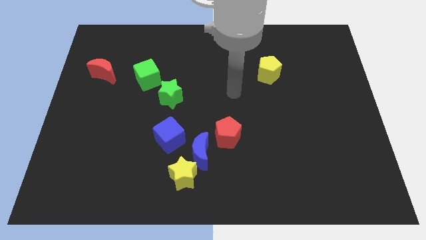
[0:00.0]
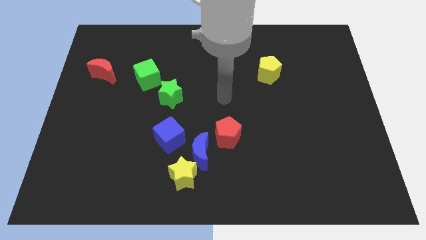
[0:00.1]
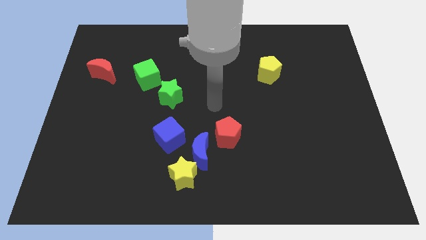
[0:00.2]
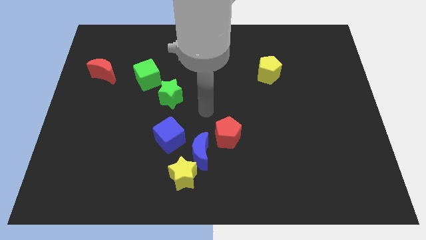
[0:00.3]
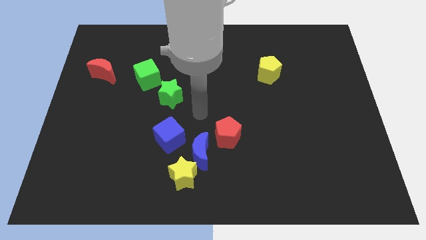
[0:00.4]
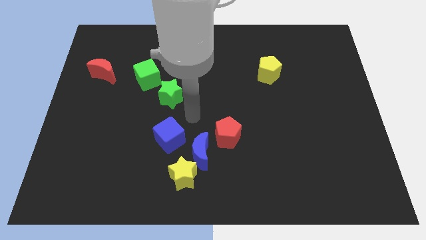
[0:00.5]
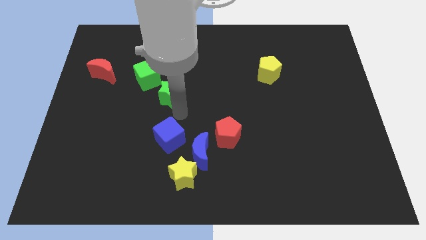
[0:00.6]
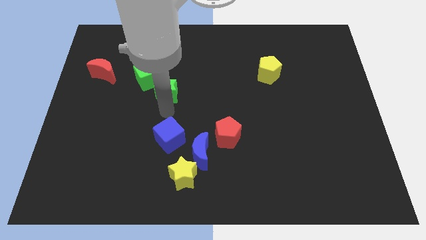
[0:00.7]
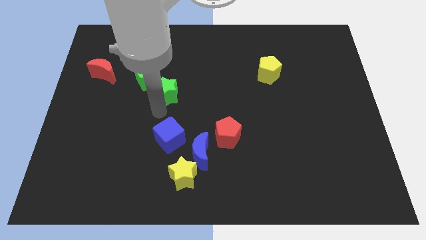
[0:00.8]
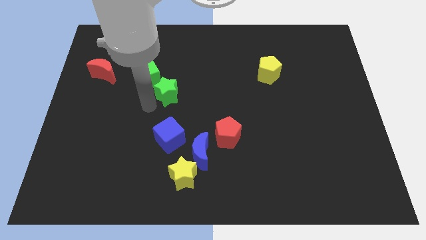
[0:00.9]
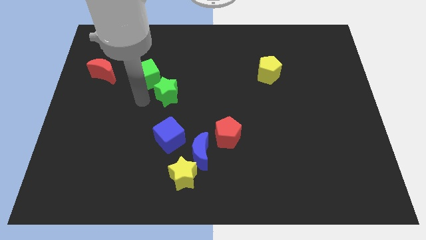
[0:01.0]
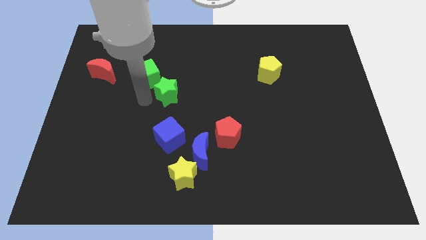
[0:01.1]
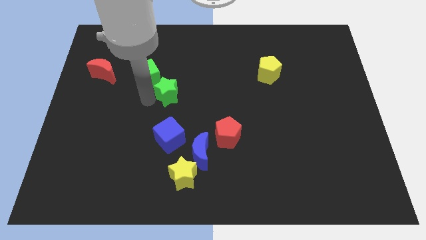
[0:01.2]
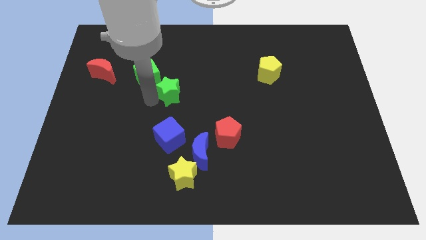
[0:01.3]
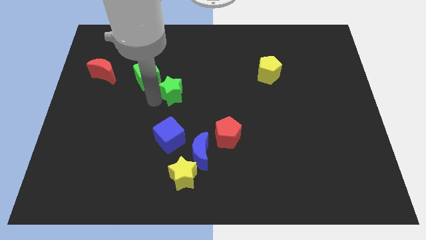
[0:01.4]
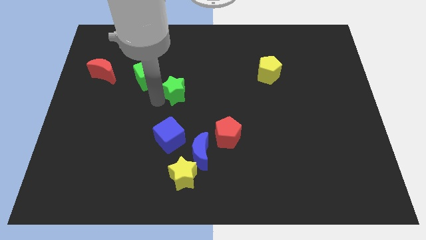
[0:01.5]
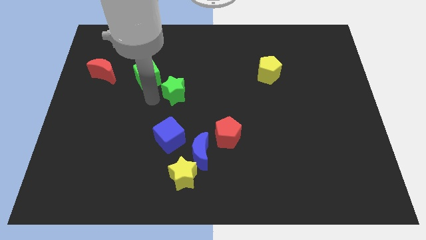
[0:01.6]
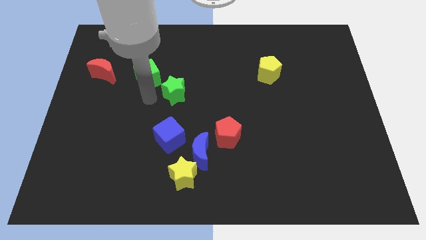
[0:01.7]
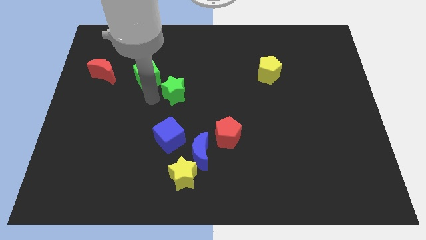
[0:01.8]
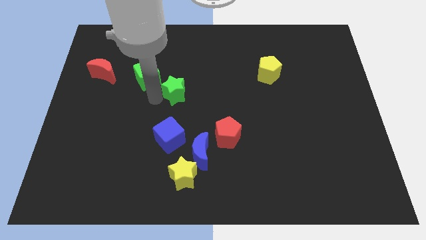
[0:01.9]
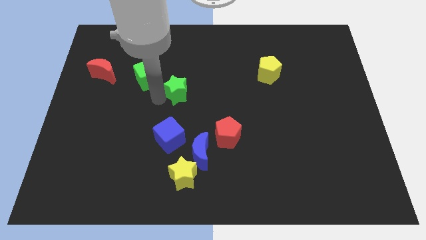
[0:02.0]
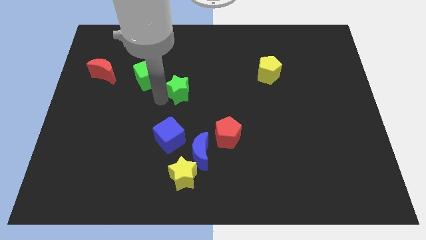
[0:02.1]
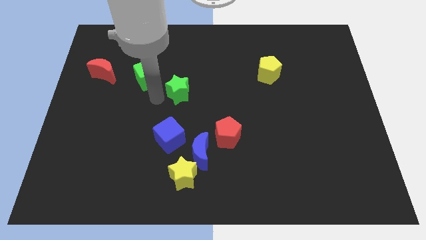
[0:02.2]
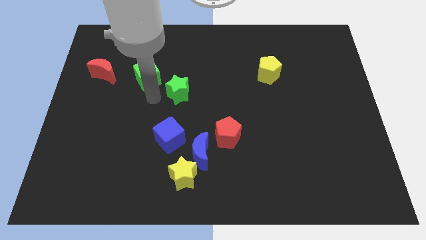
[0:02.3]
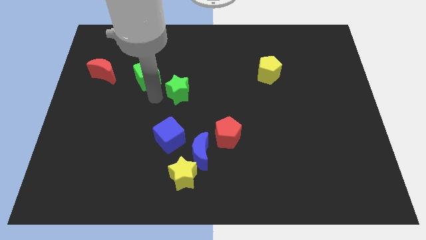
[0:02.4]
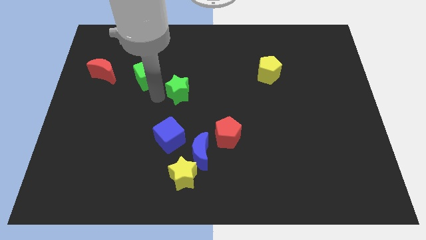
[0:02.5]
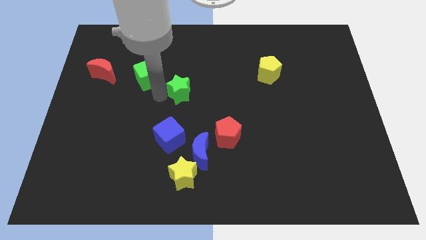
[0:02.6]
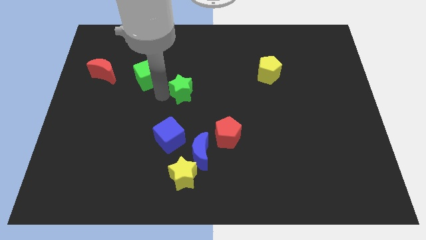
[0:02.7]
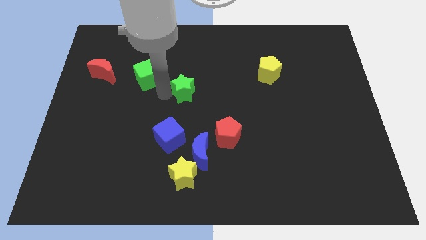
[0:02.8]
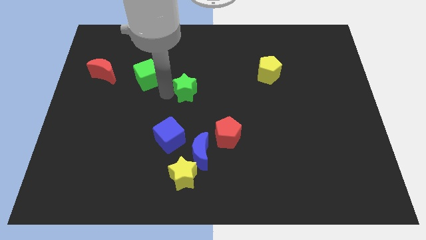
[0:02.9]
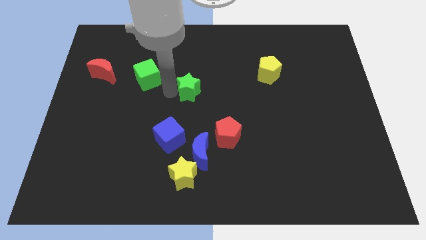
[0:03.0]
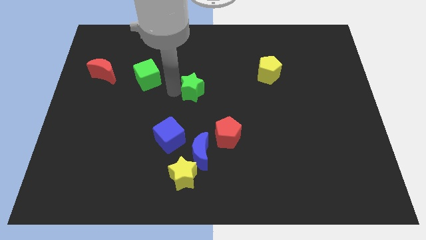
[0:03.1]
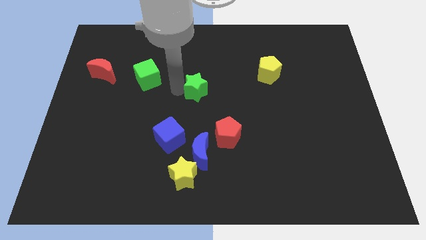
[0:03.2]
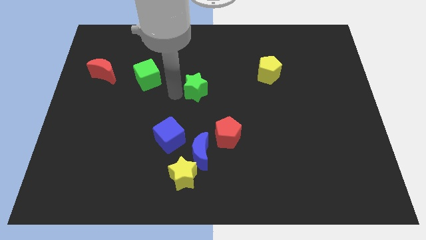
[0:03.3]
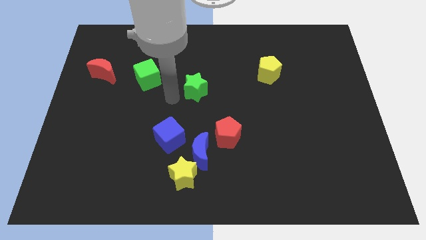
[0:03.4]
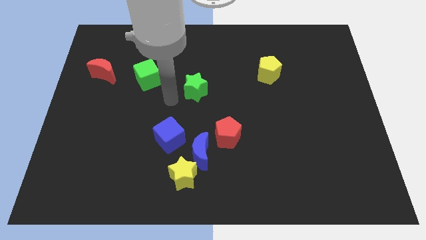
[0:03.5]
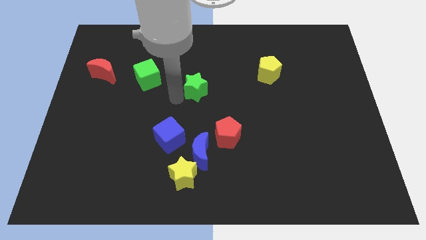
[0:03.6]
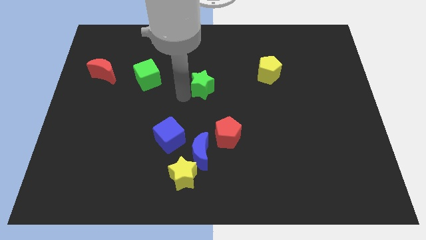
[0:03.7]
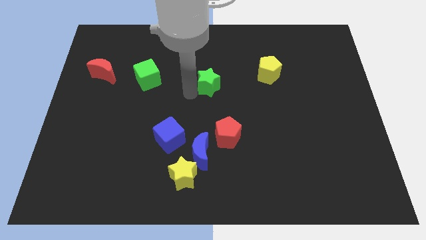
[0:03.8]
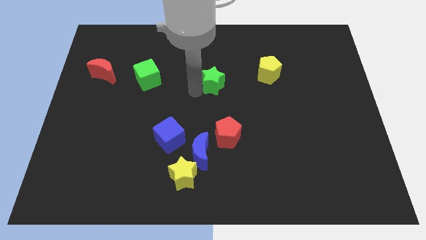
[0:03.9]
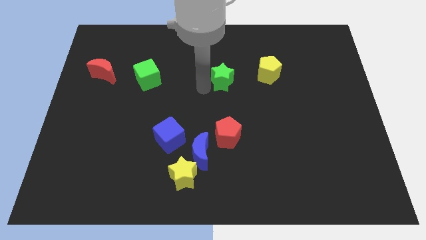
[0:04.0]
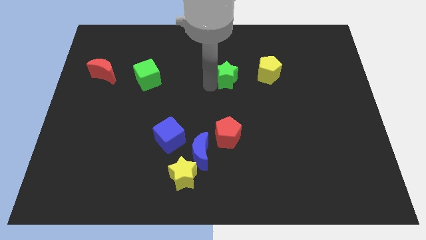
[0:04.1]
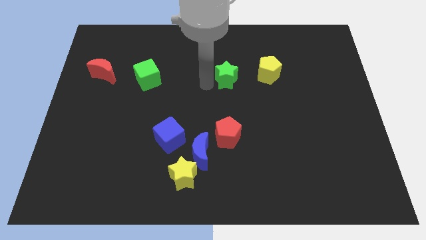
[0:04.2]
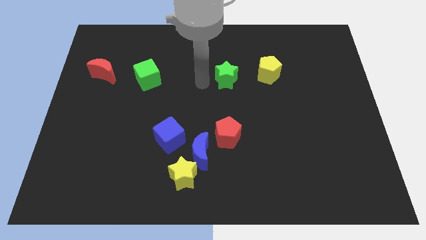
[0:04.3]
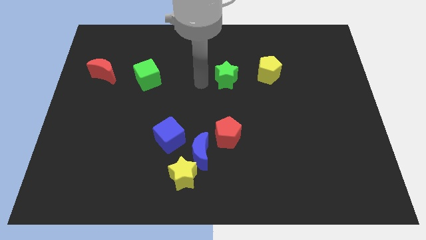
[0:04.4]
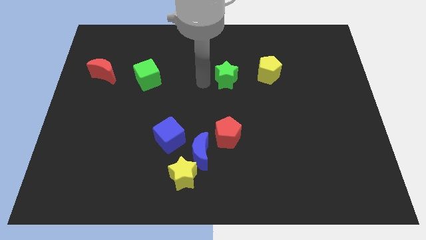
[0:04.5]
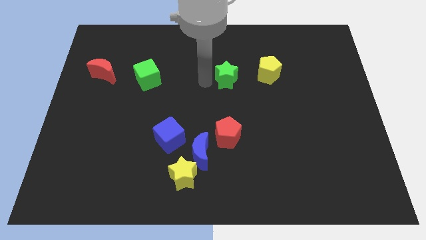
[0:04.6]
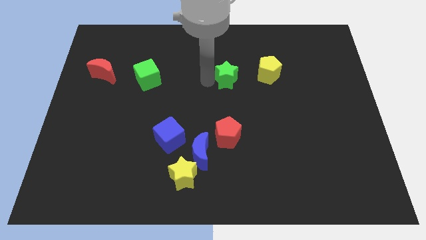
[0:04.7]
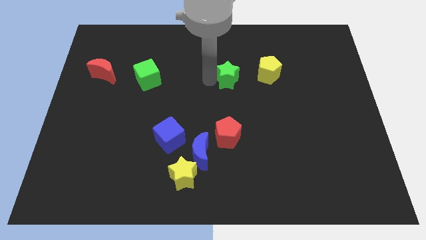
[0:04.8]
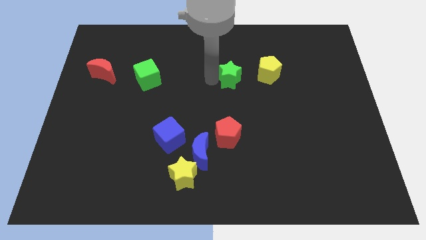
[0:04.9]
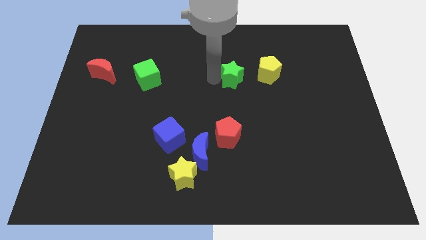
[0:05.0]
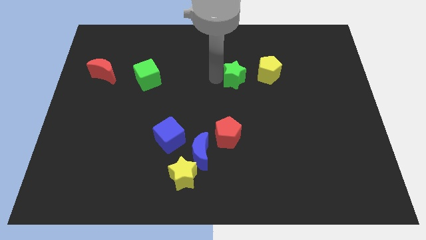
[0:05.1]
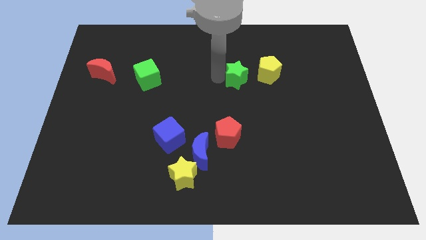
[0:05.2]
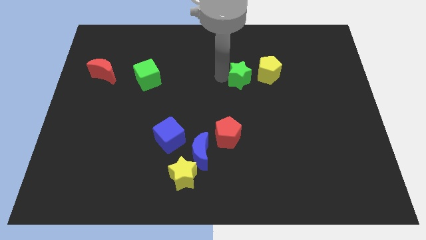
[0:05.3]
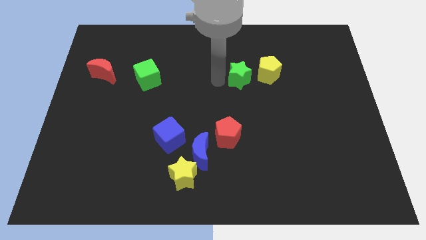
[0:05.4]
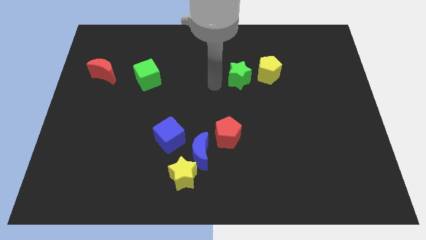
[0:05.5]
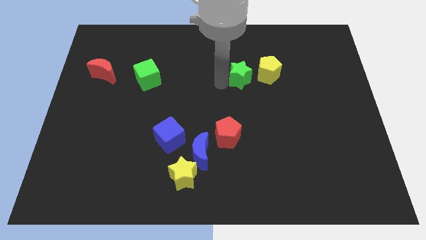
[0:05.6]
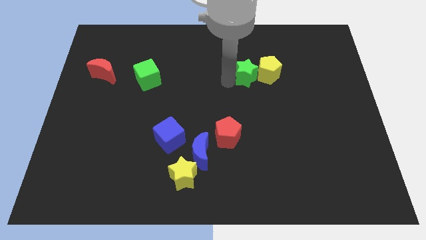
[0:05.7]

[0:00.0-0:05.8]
move the green star close to the yellow pentagon

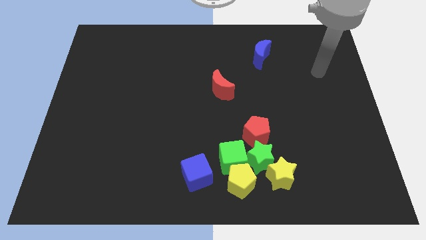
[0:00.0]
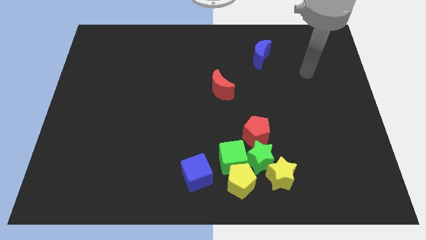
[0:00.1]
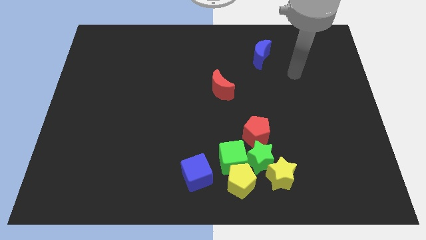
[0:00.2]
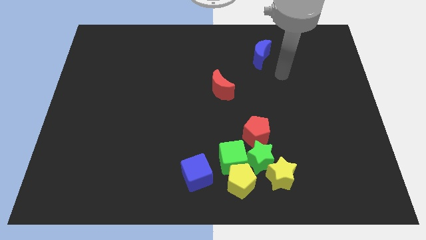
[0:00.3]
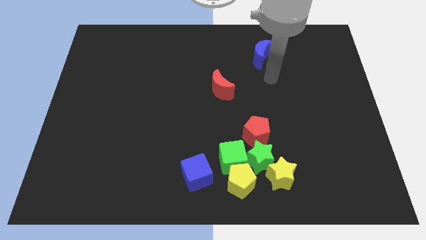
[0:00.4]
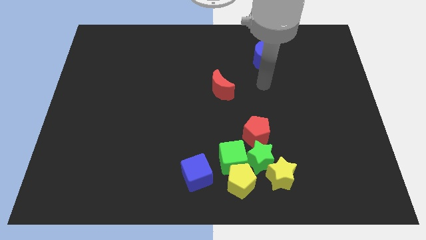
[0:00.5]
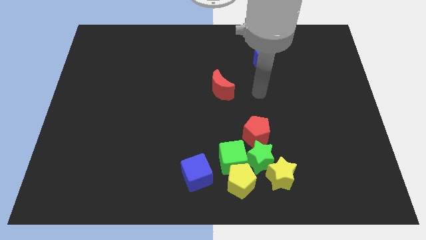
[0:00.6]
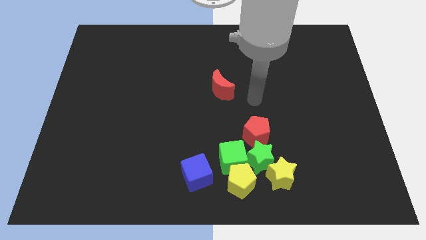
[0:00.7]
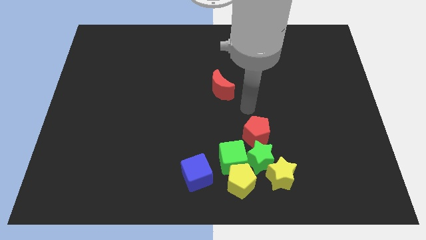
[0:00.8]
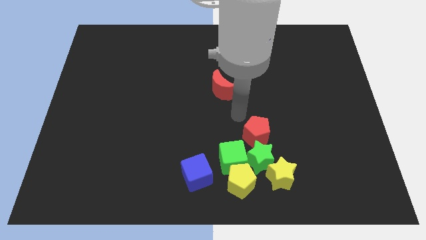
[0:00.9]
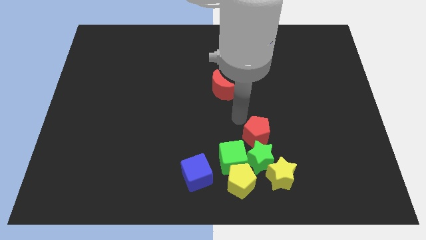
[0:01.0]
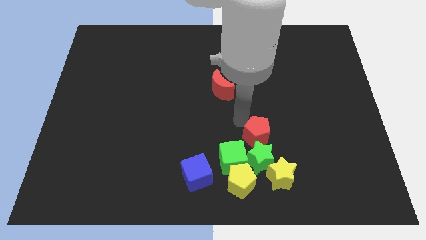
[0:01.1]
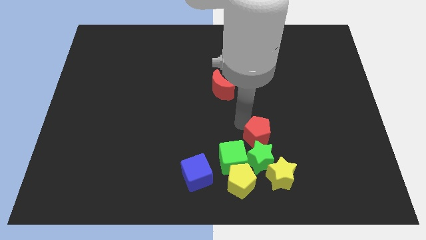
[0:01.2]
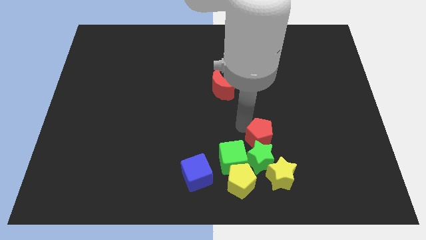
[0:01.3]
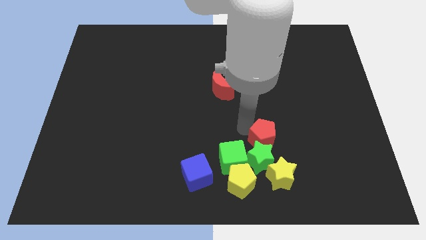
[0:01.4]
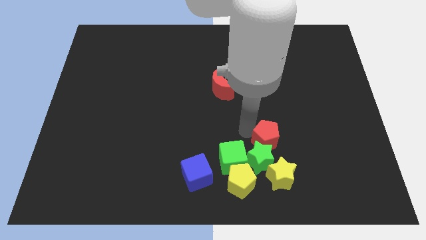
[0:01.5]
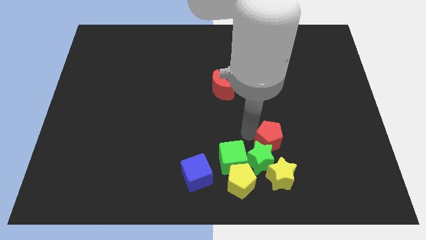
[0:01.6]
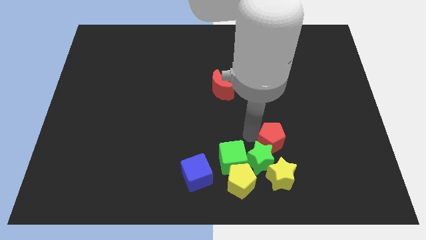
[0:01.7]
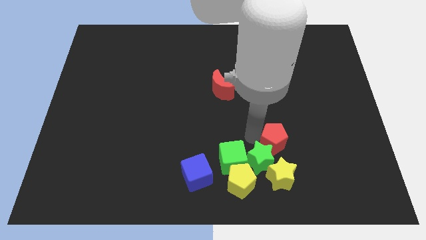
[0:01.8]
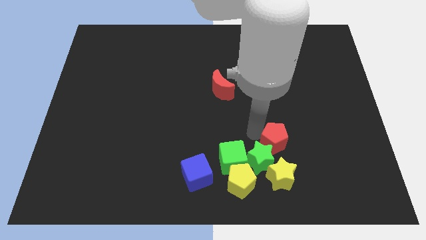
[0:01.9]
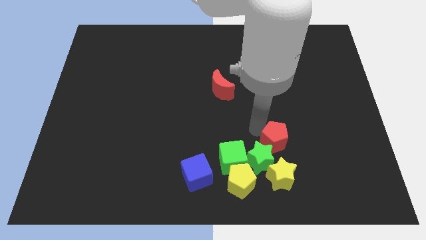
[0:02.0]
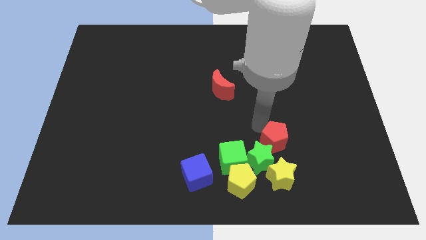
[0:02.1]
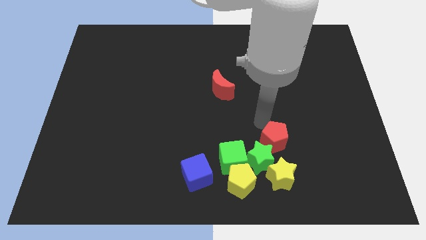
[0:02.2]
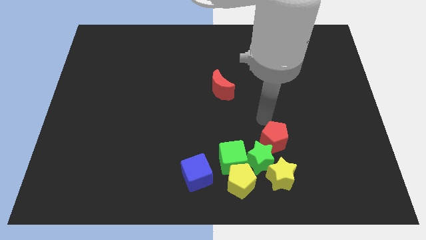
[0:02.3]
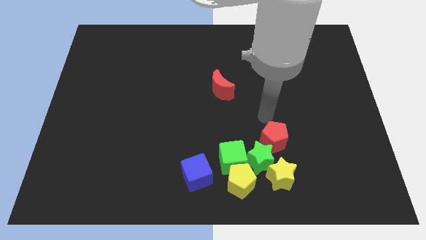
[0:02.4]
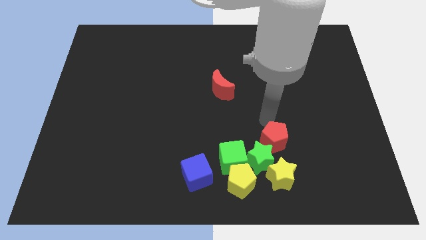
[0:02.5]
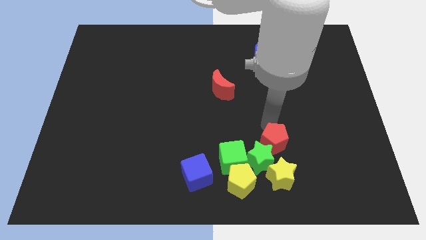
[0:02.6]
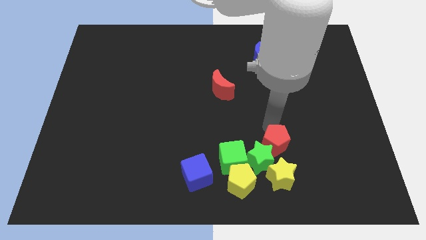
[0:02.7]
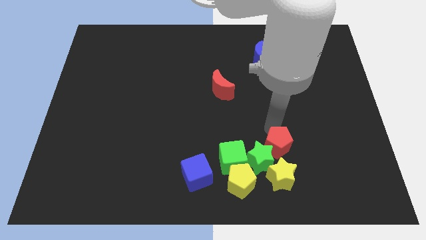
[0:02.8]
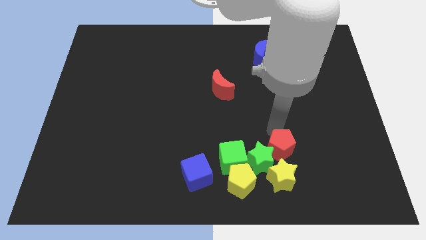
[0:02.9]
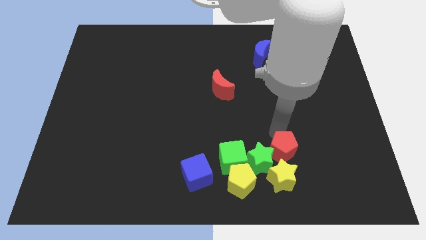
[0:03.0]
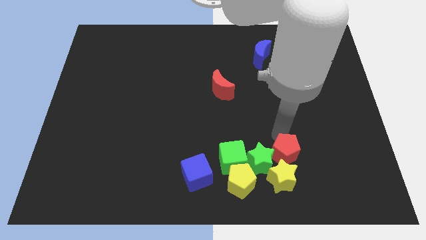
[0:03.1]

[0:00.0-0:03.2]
move the red pentagon next to the yellow star
